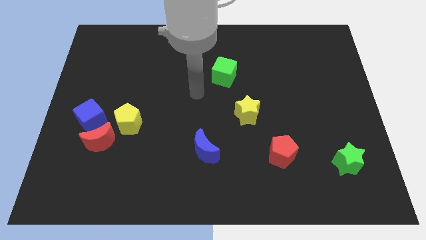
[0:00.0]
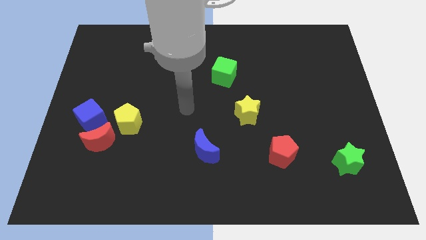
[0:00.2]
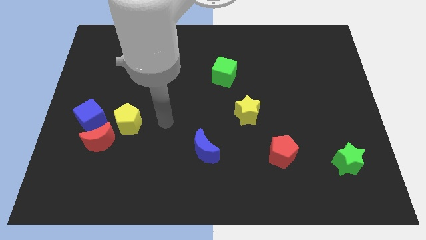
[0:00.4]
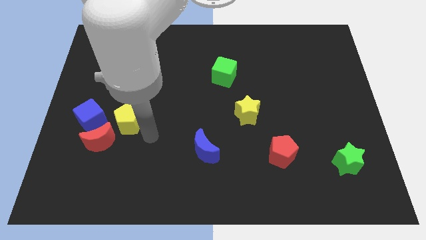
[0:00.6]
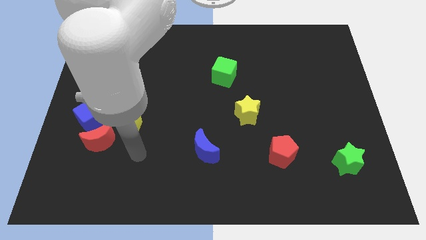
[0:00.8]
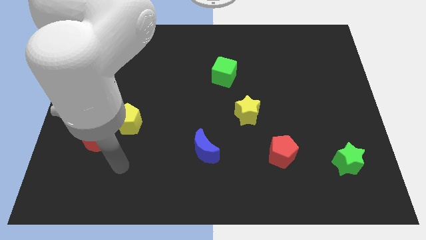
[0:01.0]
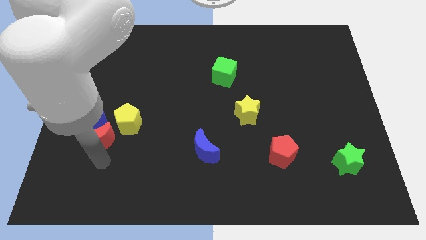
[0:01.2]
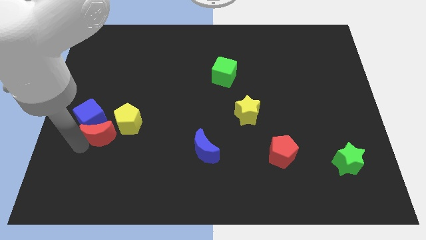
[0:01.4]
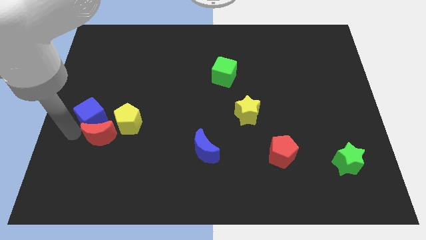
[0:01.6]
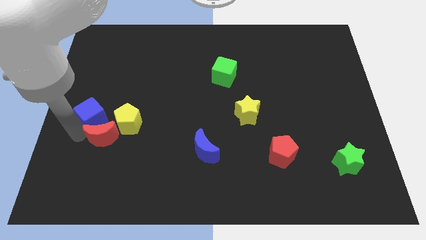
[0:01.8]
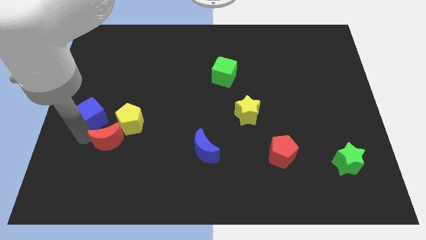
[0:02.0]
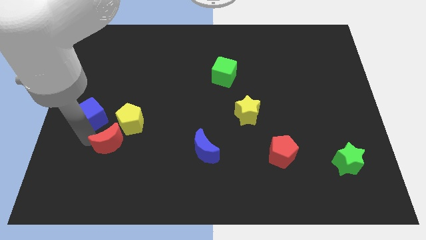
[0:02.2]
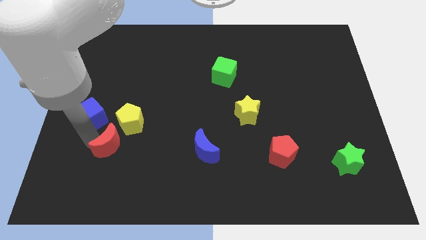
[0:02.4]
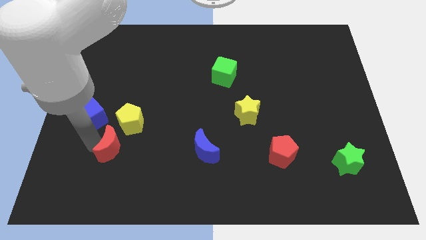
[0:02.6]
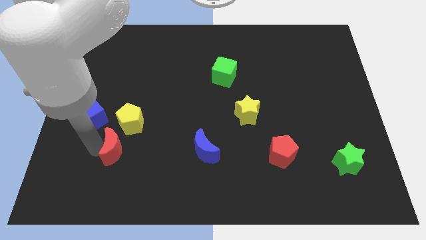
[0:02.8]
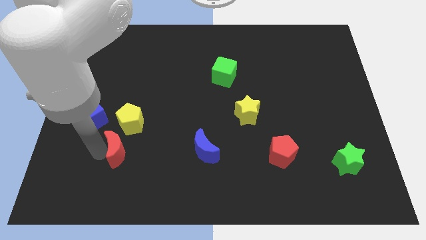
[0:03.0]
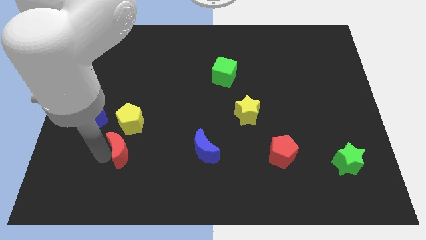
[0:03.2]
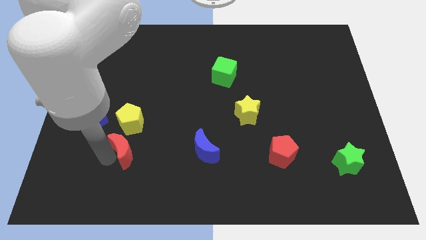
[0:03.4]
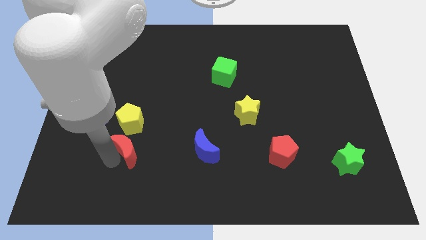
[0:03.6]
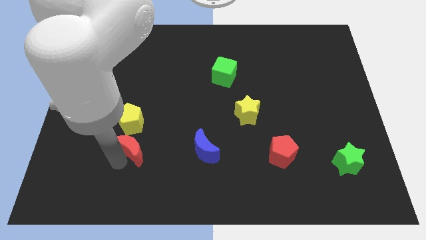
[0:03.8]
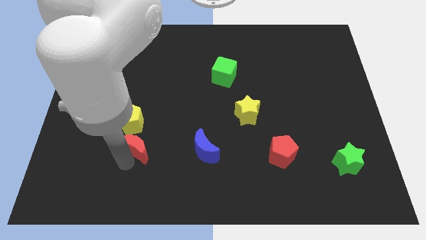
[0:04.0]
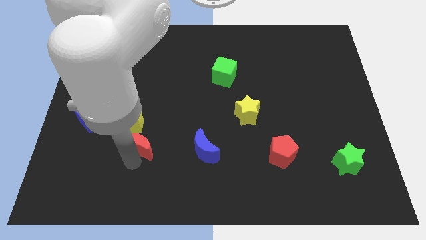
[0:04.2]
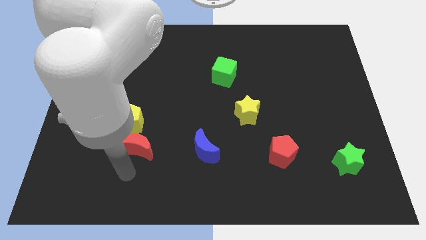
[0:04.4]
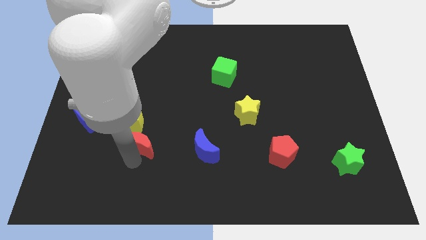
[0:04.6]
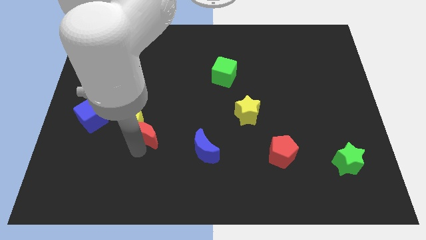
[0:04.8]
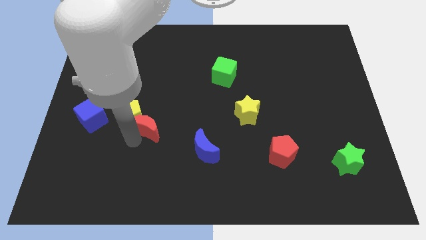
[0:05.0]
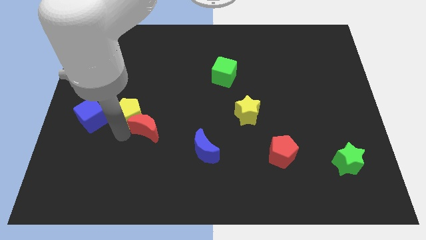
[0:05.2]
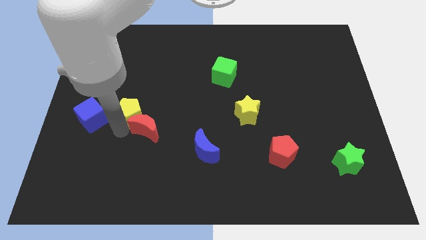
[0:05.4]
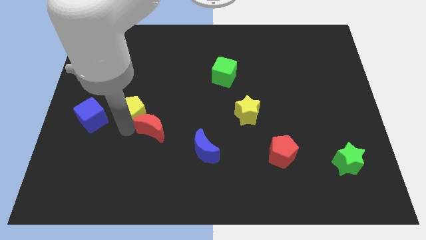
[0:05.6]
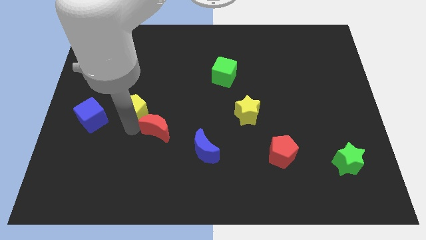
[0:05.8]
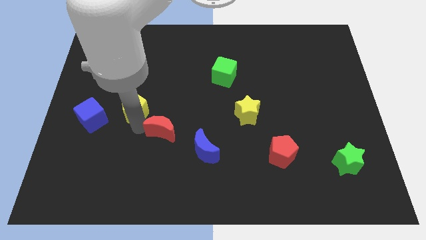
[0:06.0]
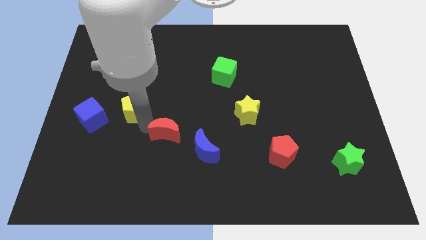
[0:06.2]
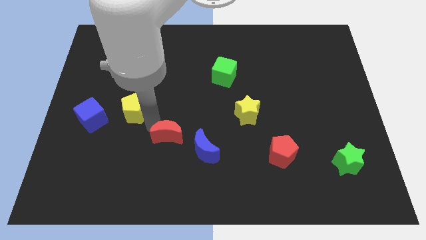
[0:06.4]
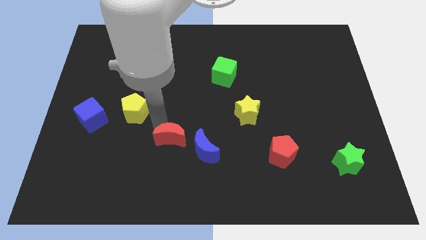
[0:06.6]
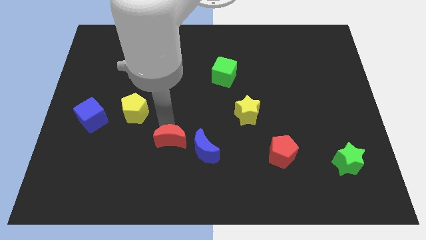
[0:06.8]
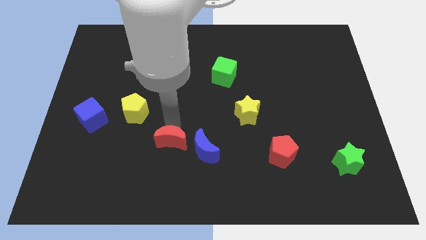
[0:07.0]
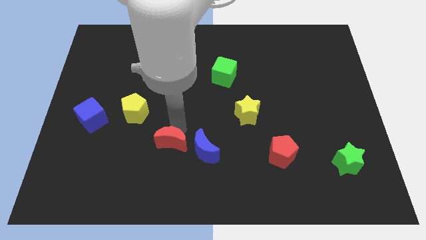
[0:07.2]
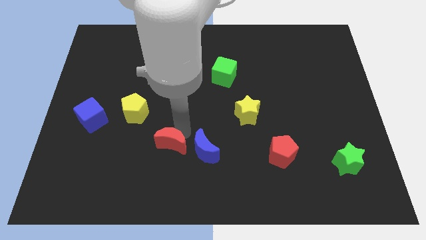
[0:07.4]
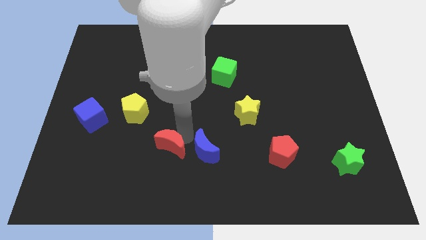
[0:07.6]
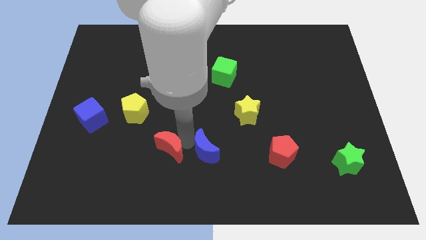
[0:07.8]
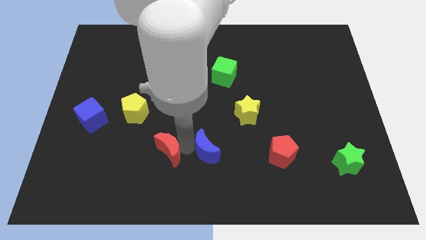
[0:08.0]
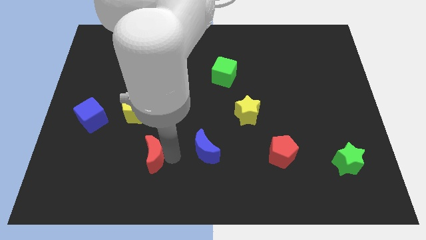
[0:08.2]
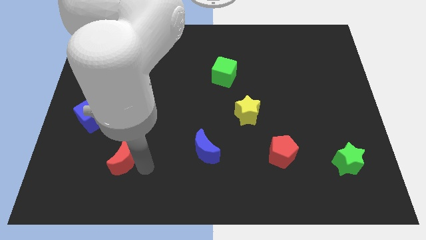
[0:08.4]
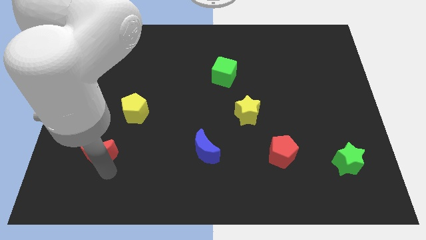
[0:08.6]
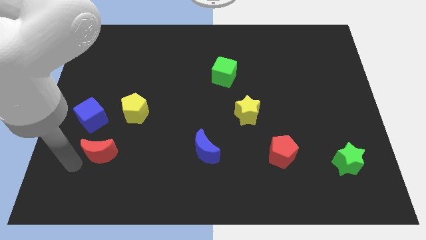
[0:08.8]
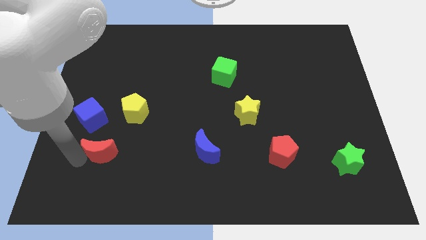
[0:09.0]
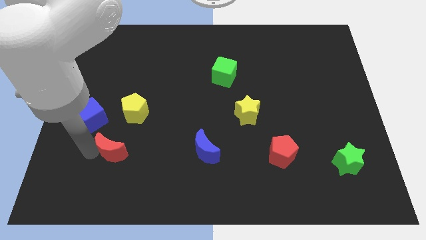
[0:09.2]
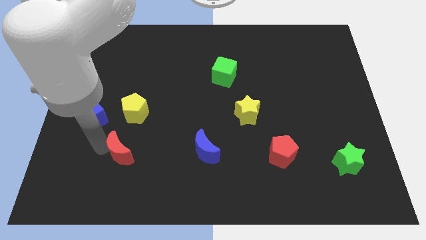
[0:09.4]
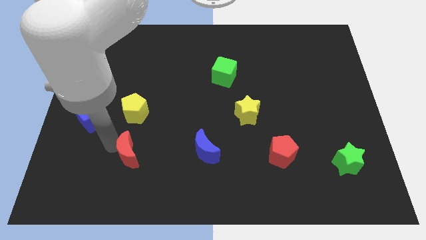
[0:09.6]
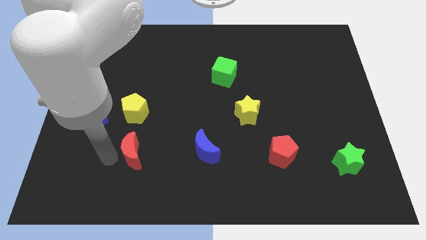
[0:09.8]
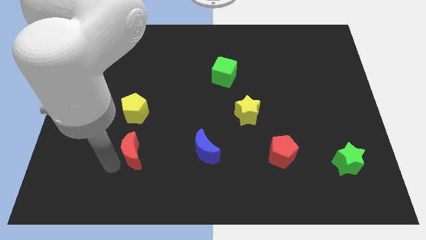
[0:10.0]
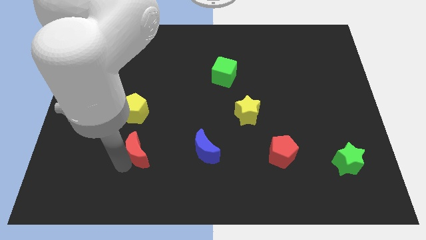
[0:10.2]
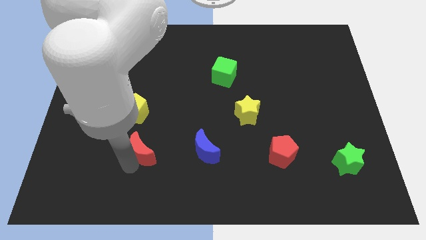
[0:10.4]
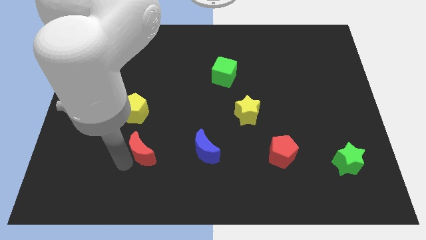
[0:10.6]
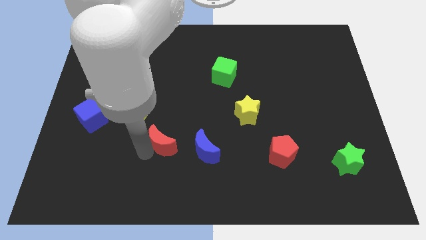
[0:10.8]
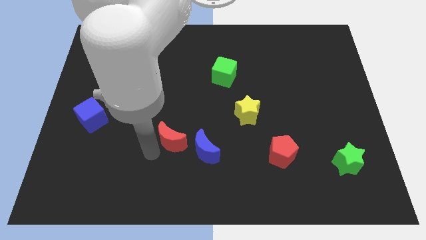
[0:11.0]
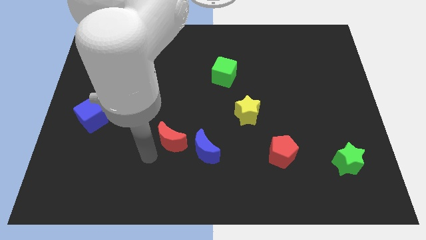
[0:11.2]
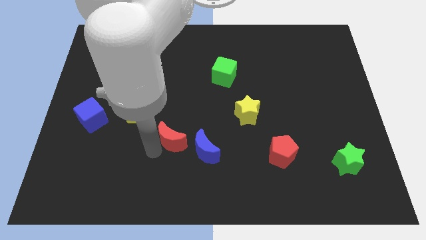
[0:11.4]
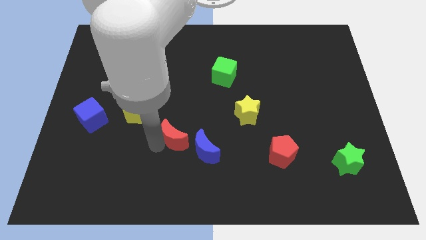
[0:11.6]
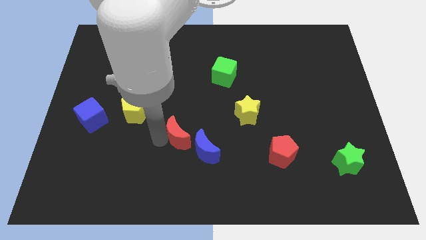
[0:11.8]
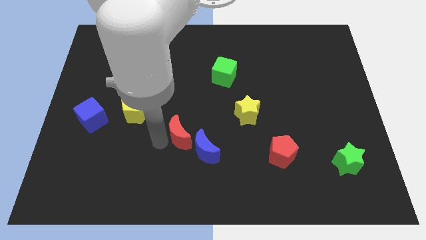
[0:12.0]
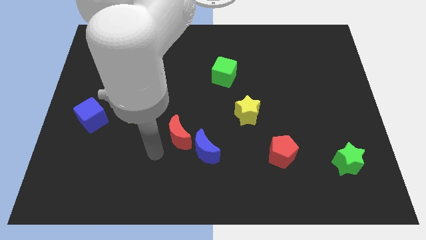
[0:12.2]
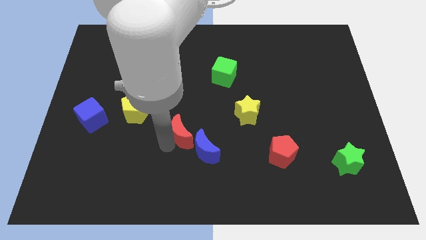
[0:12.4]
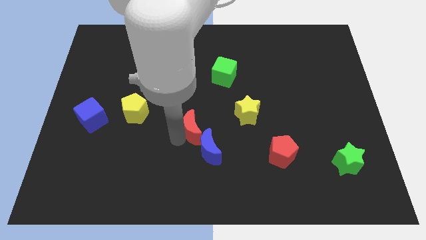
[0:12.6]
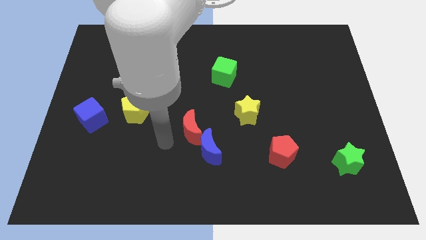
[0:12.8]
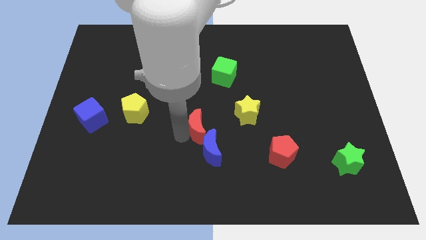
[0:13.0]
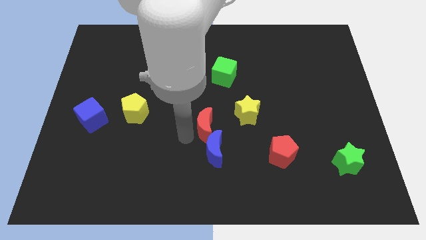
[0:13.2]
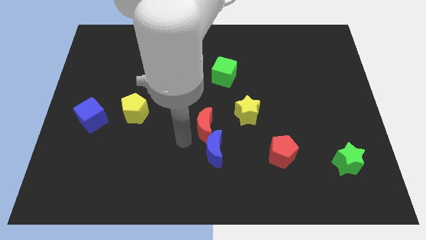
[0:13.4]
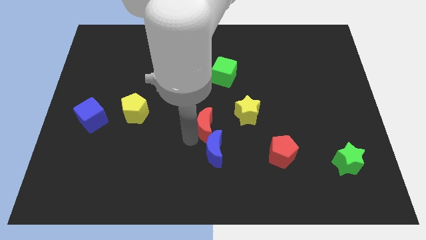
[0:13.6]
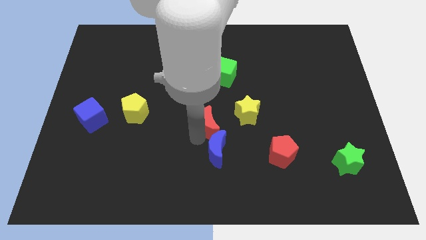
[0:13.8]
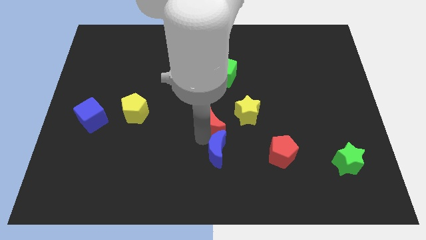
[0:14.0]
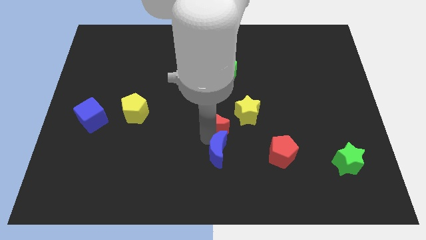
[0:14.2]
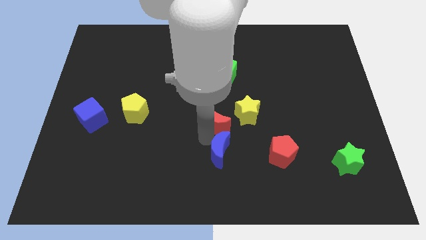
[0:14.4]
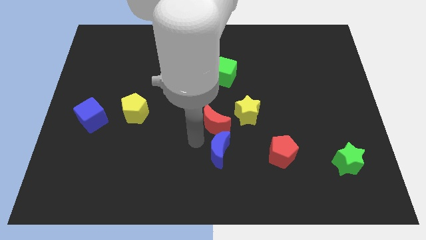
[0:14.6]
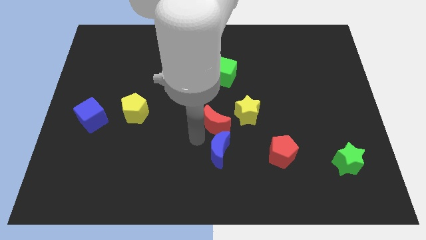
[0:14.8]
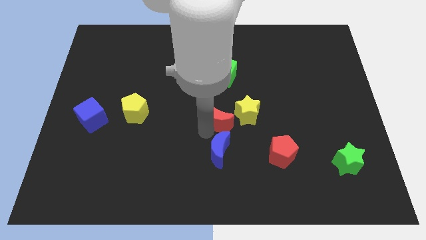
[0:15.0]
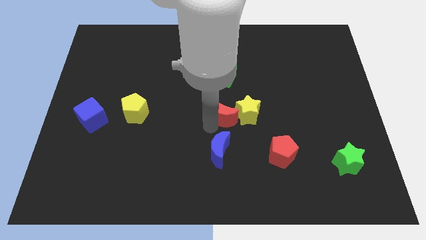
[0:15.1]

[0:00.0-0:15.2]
move the red moon next to the yellow star

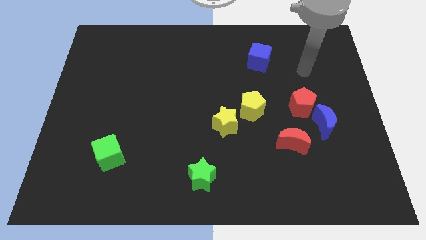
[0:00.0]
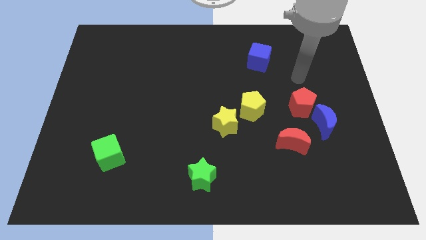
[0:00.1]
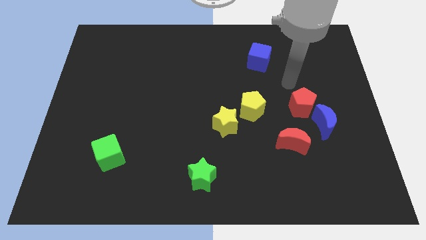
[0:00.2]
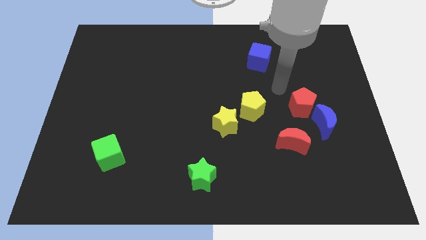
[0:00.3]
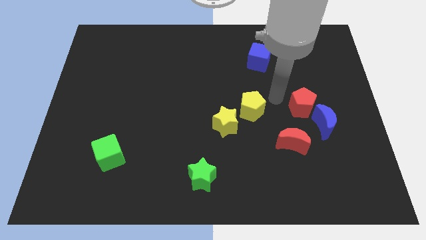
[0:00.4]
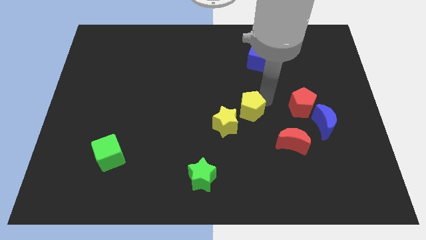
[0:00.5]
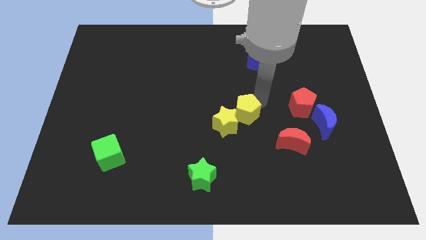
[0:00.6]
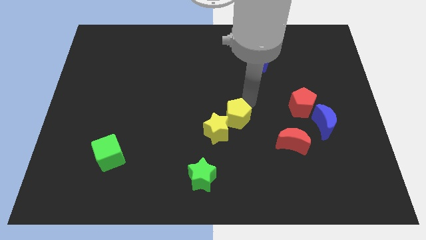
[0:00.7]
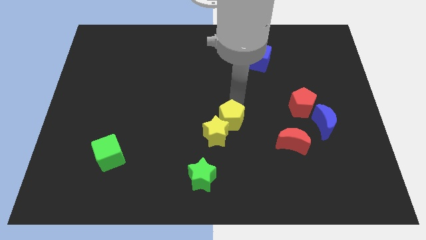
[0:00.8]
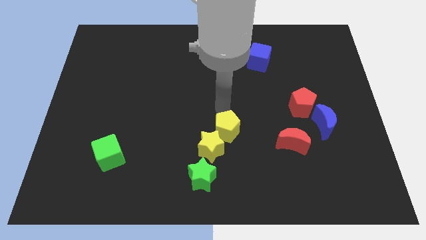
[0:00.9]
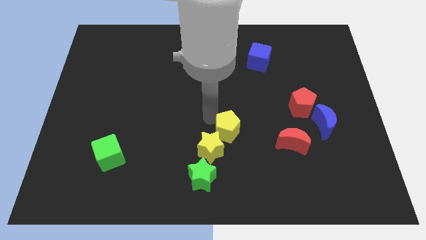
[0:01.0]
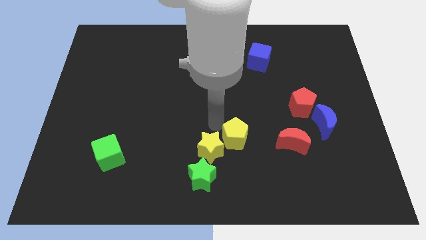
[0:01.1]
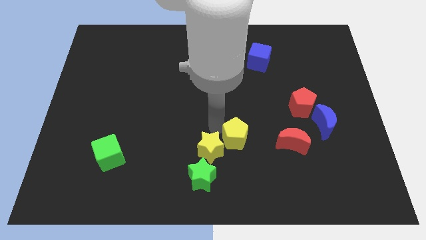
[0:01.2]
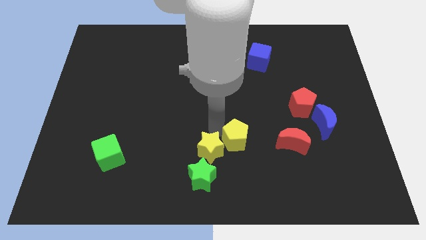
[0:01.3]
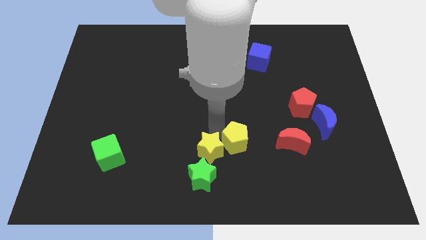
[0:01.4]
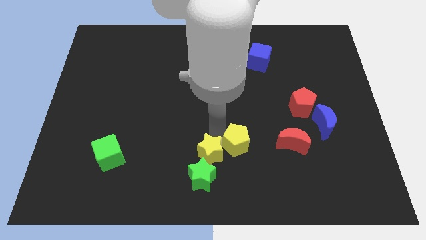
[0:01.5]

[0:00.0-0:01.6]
slide the yellow star next to the green star
